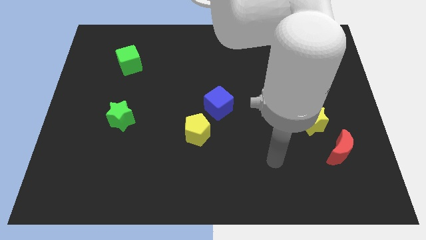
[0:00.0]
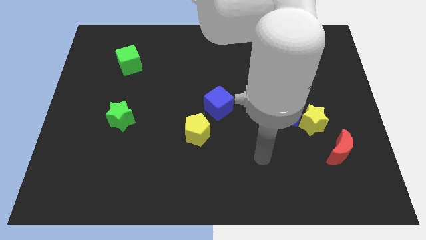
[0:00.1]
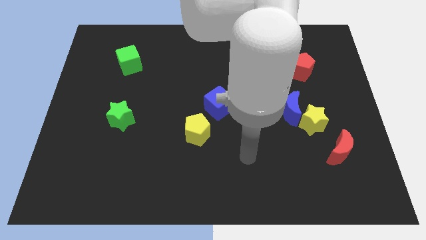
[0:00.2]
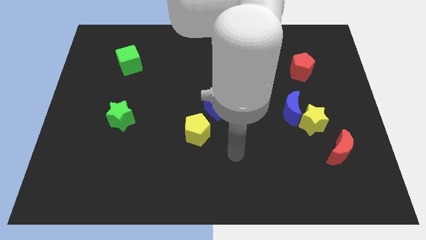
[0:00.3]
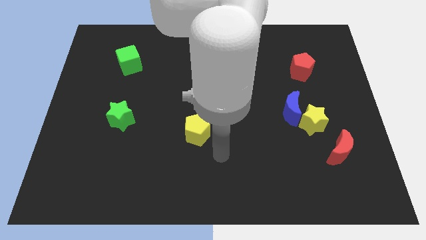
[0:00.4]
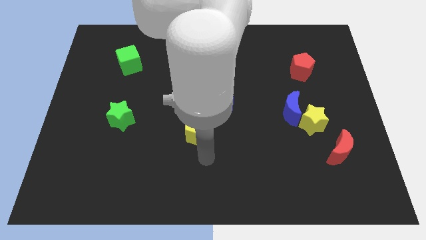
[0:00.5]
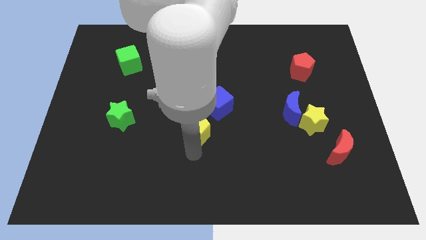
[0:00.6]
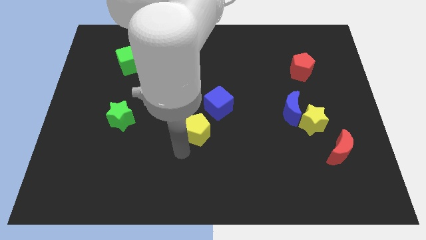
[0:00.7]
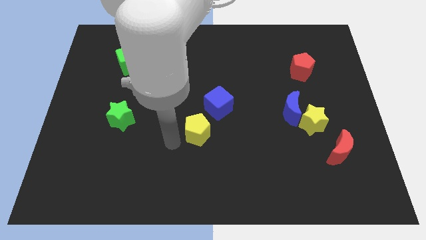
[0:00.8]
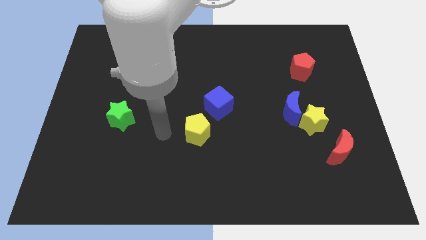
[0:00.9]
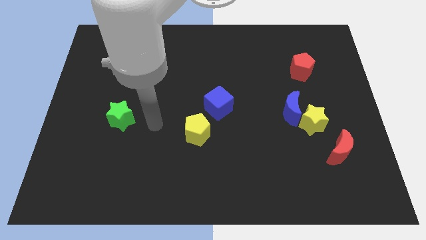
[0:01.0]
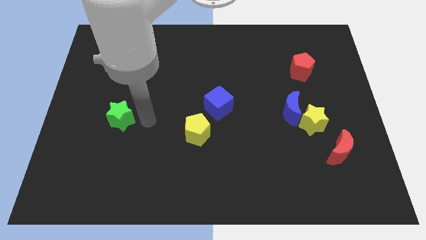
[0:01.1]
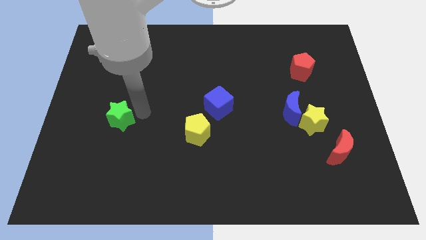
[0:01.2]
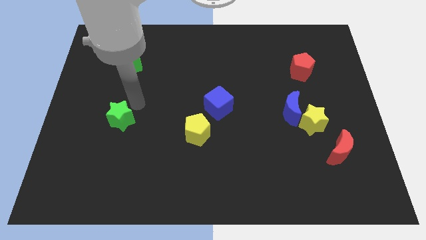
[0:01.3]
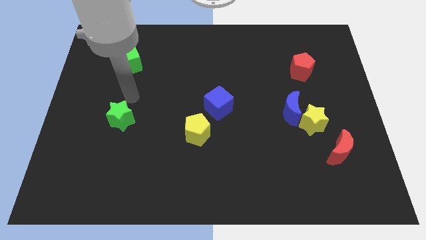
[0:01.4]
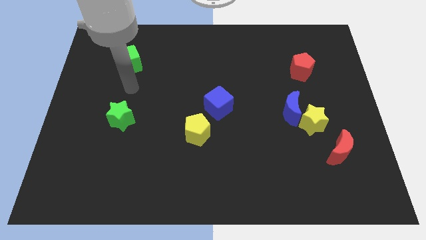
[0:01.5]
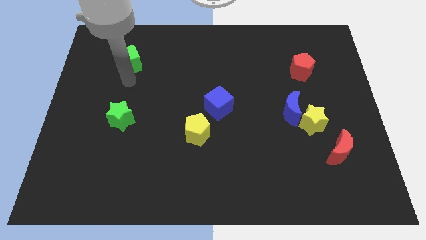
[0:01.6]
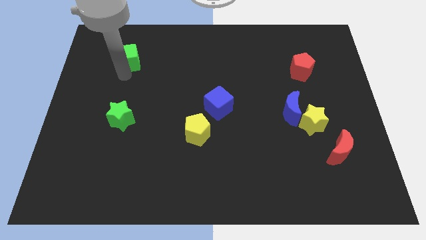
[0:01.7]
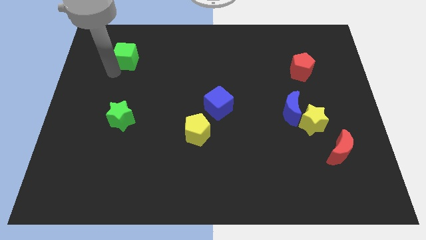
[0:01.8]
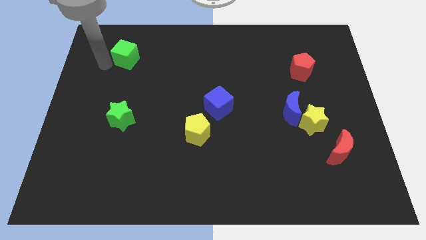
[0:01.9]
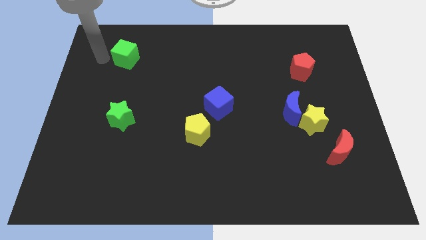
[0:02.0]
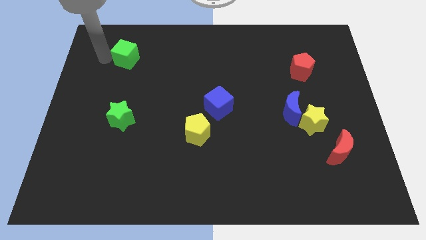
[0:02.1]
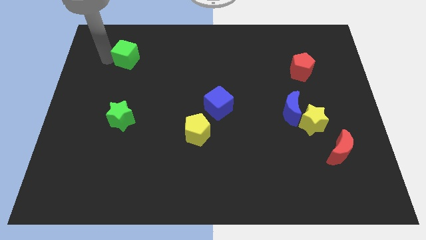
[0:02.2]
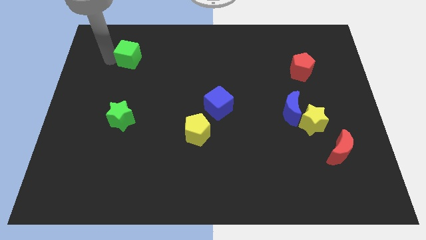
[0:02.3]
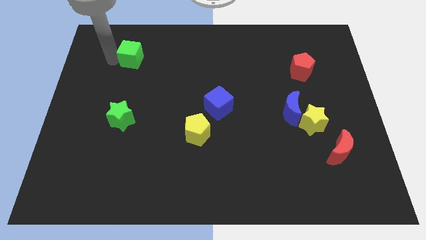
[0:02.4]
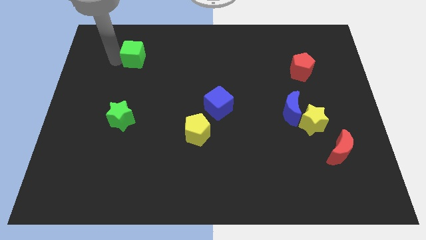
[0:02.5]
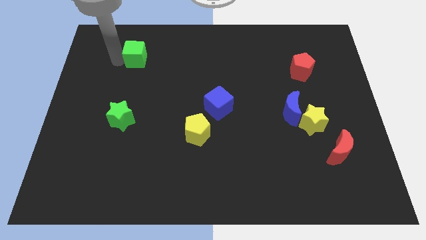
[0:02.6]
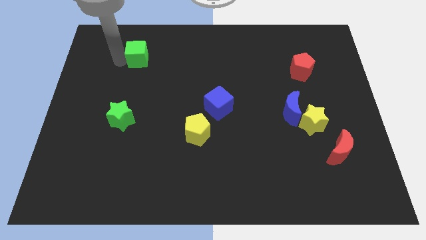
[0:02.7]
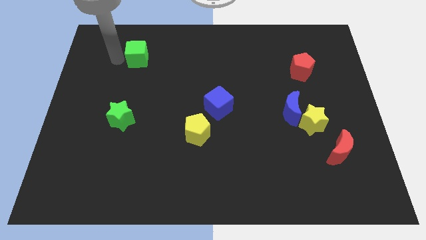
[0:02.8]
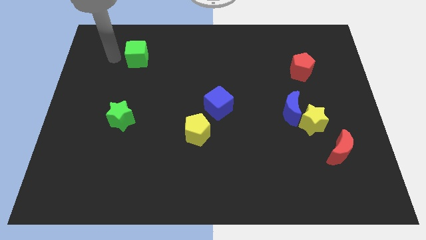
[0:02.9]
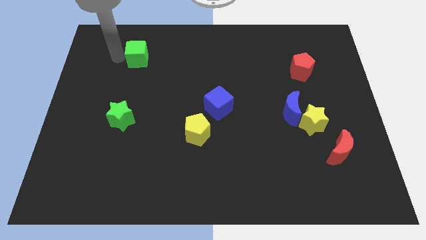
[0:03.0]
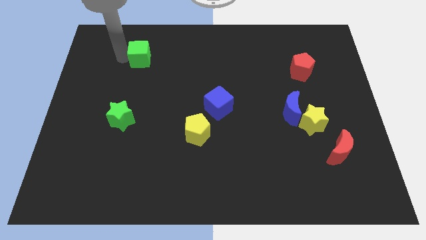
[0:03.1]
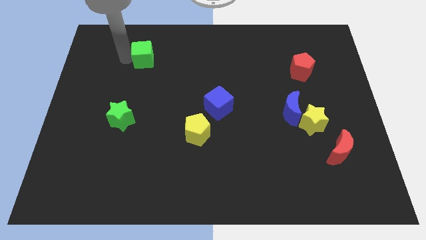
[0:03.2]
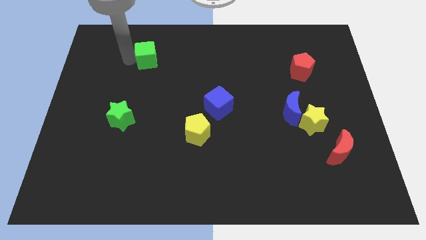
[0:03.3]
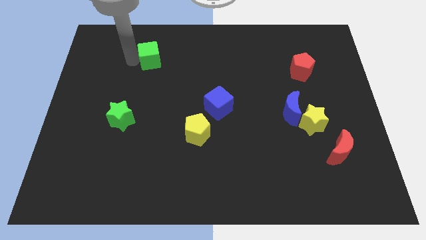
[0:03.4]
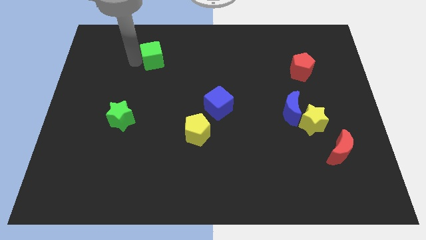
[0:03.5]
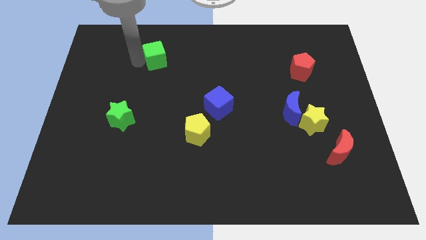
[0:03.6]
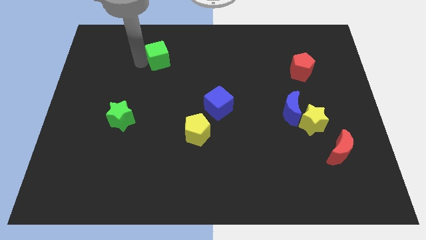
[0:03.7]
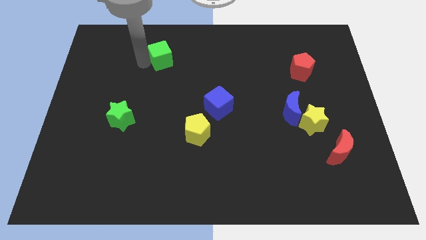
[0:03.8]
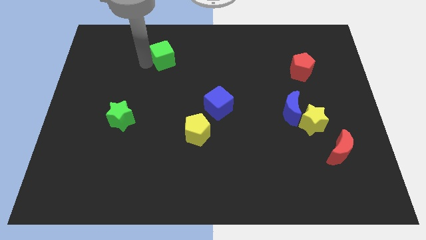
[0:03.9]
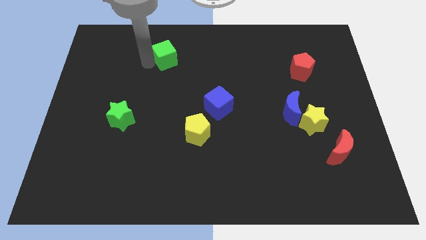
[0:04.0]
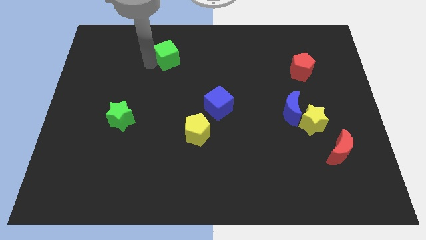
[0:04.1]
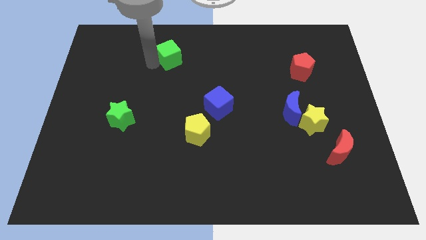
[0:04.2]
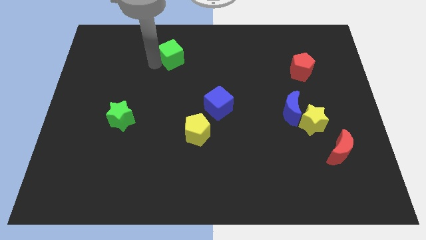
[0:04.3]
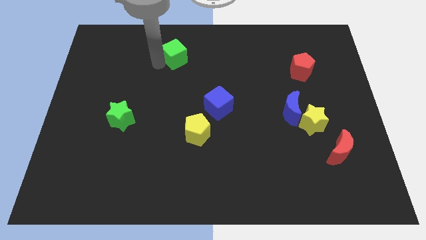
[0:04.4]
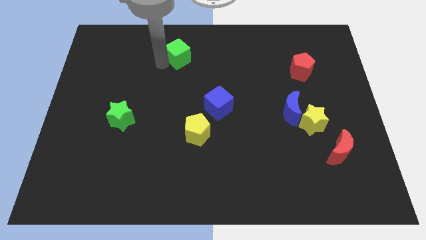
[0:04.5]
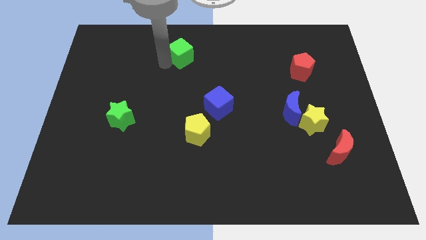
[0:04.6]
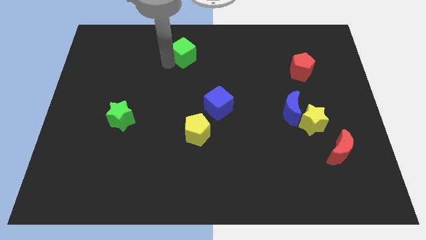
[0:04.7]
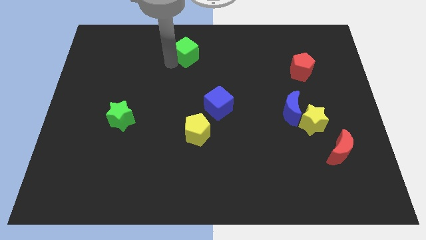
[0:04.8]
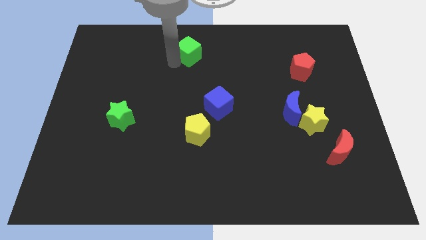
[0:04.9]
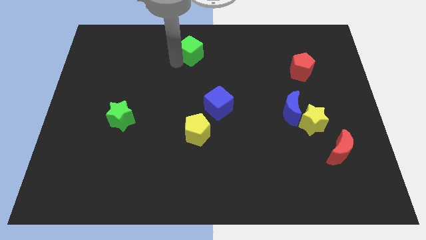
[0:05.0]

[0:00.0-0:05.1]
slide the green cube to the towards your base

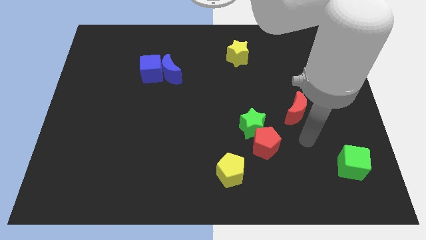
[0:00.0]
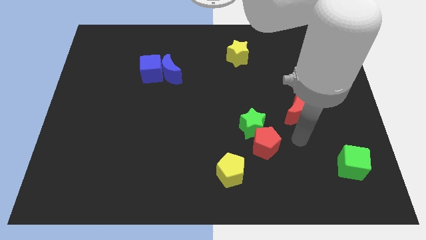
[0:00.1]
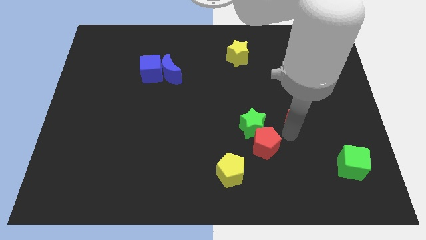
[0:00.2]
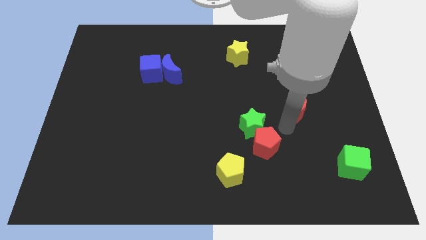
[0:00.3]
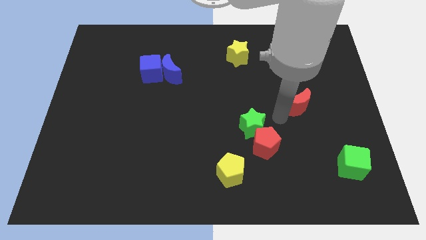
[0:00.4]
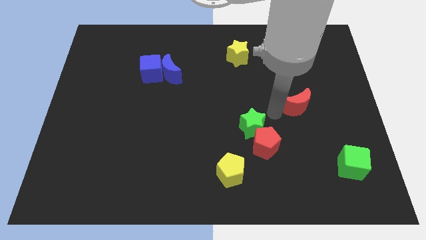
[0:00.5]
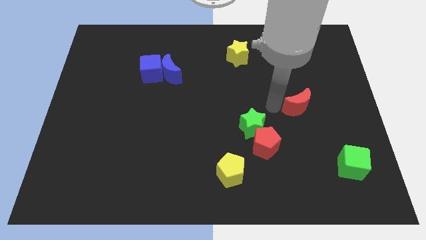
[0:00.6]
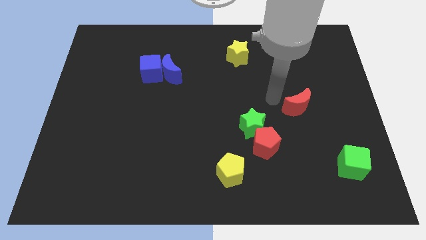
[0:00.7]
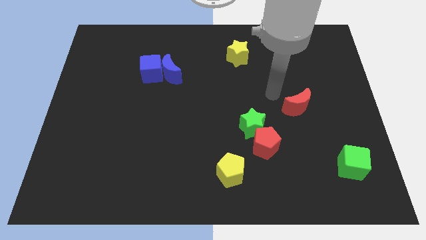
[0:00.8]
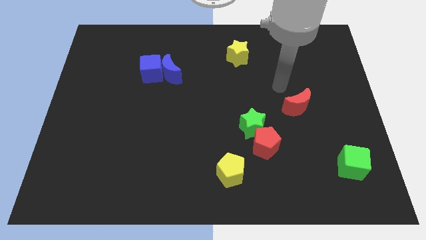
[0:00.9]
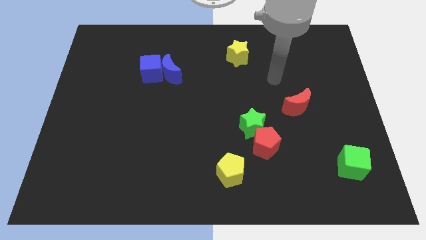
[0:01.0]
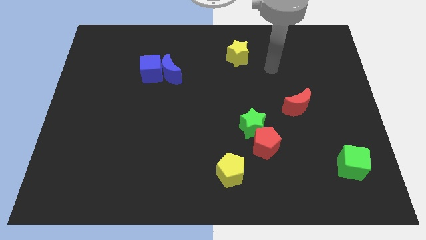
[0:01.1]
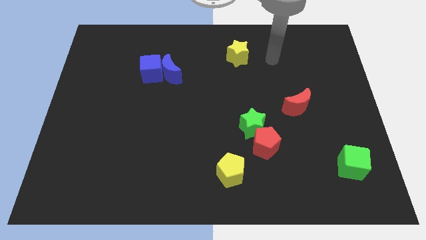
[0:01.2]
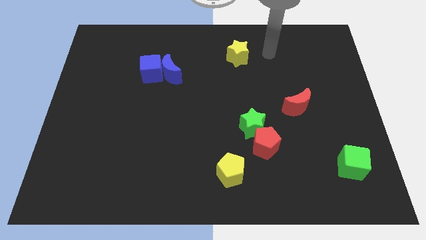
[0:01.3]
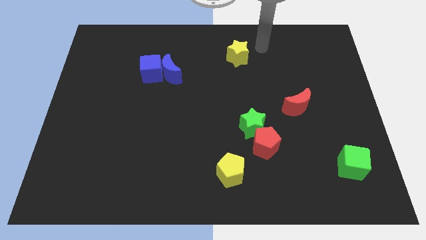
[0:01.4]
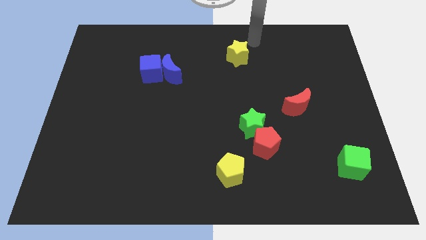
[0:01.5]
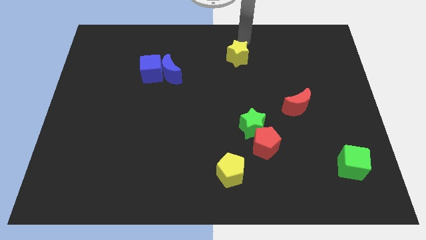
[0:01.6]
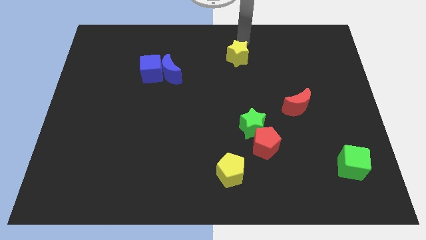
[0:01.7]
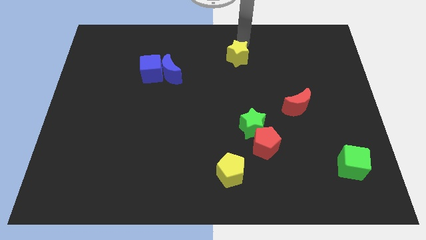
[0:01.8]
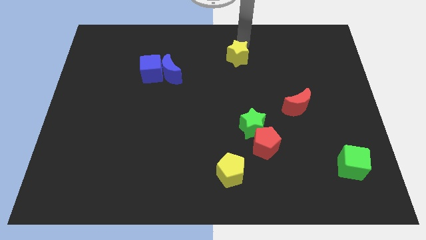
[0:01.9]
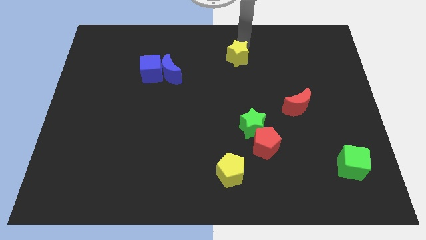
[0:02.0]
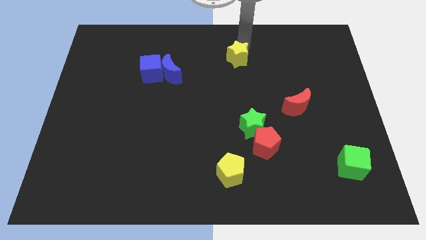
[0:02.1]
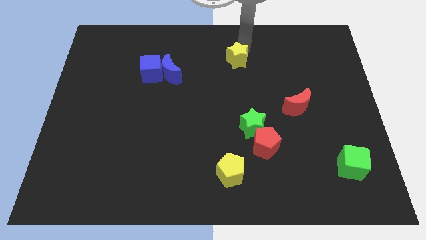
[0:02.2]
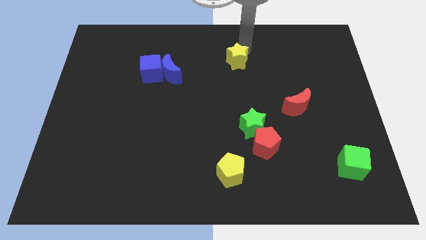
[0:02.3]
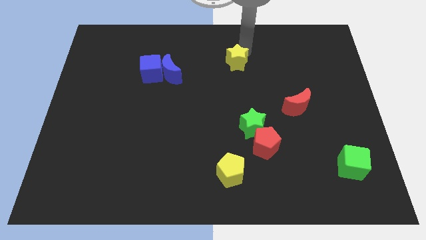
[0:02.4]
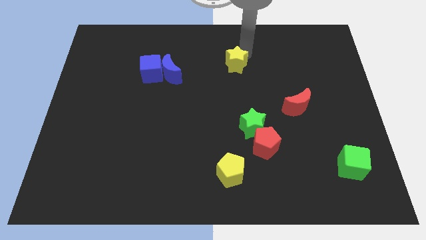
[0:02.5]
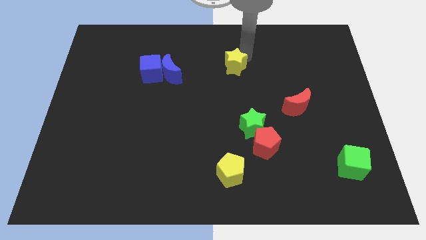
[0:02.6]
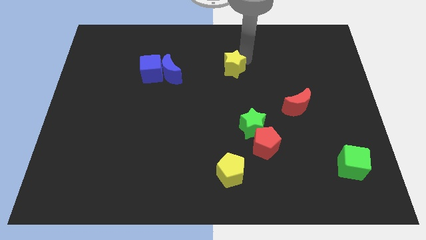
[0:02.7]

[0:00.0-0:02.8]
put the yellow star to the middle
